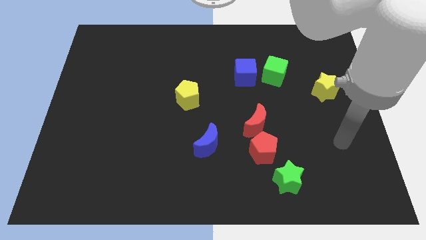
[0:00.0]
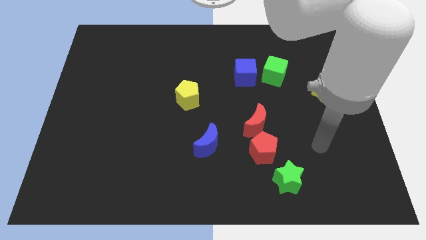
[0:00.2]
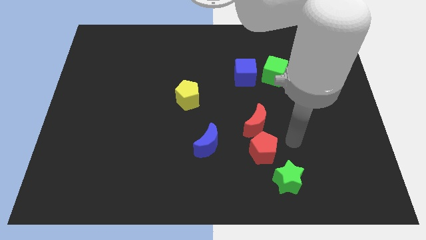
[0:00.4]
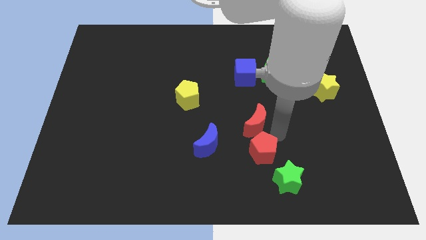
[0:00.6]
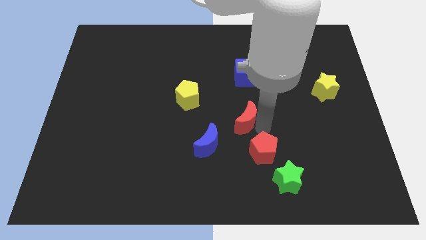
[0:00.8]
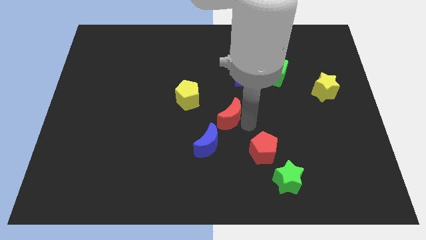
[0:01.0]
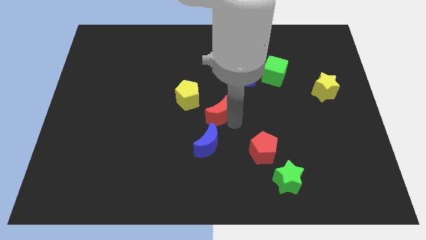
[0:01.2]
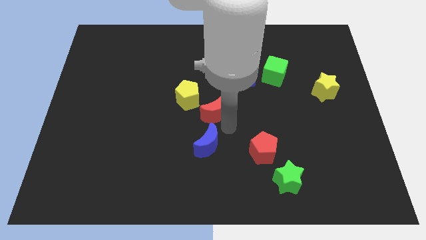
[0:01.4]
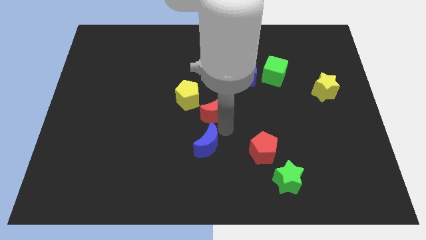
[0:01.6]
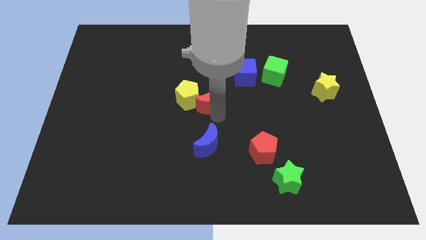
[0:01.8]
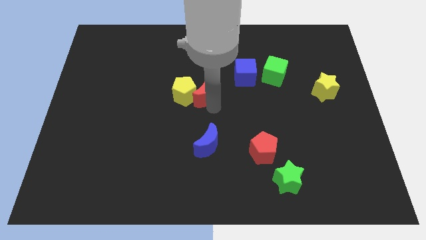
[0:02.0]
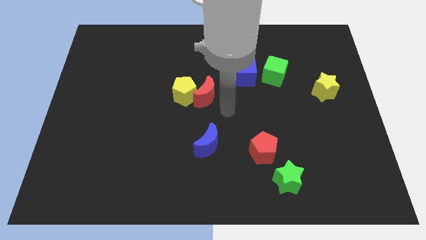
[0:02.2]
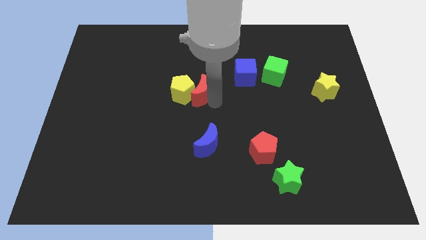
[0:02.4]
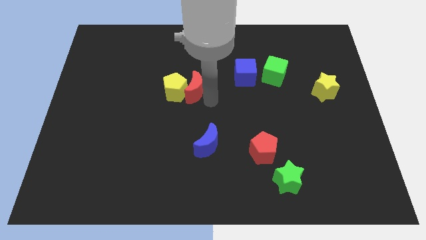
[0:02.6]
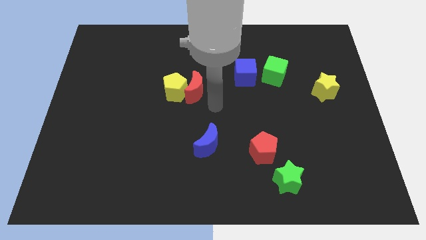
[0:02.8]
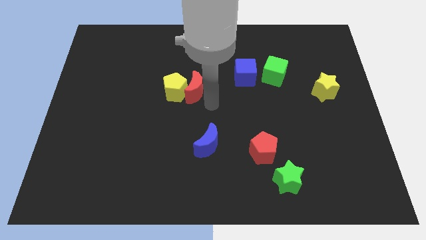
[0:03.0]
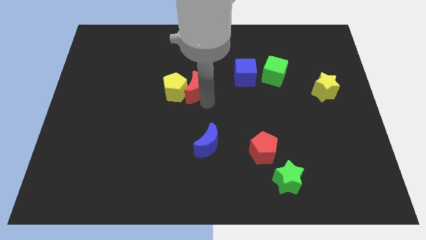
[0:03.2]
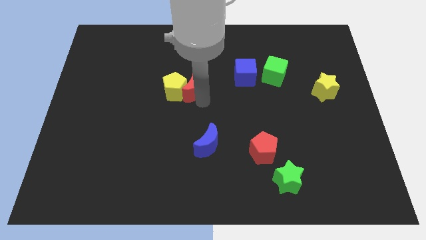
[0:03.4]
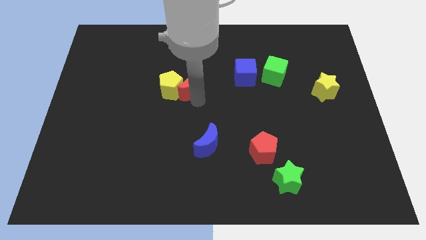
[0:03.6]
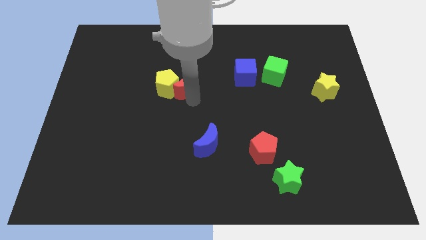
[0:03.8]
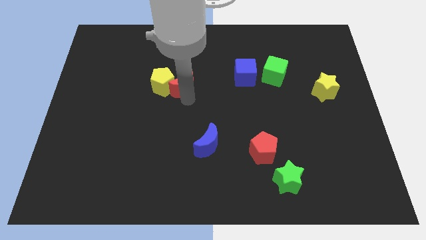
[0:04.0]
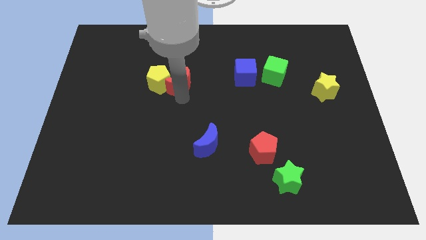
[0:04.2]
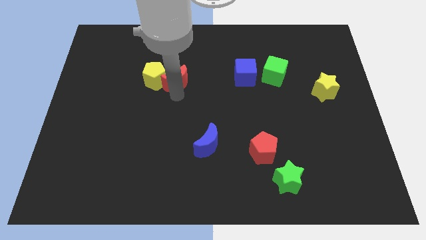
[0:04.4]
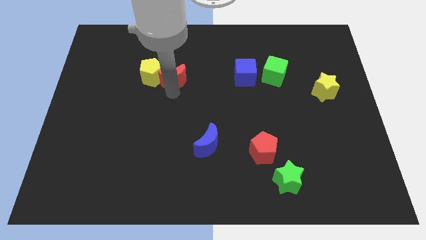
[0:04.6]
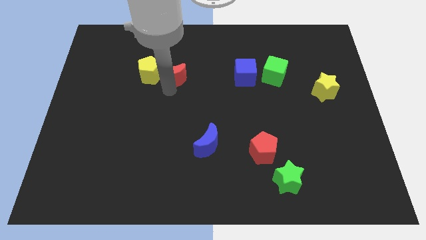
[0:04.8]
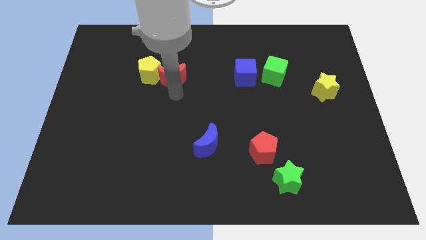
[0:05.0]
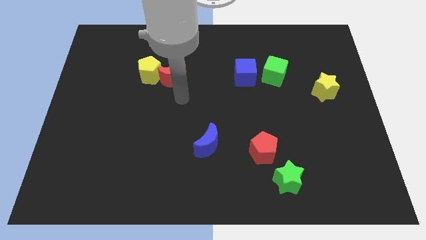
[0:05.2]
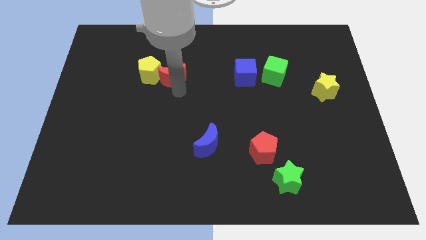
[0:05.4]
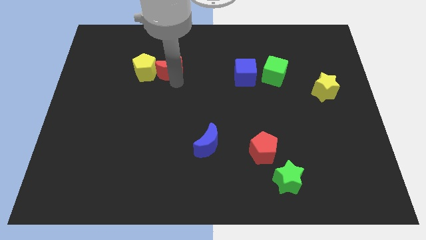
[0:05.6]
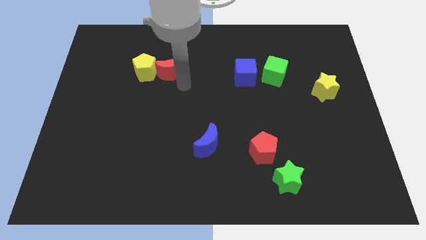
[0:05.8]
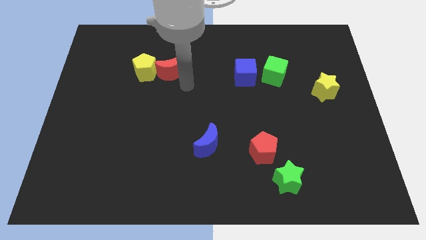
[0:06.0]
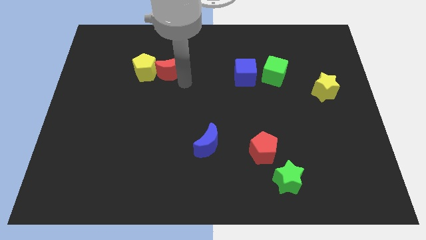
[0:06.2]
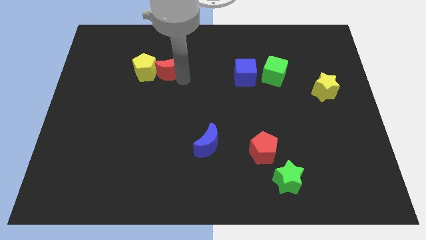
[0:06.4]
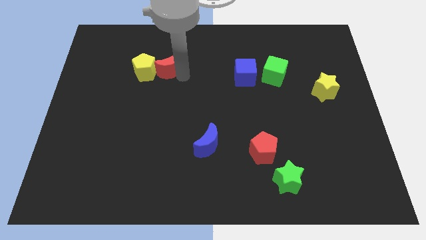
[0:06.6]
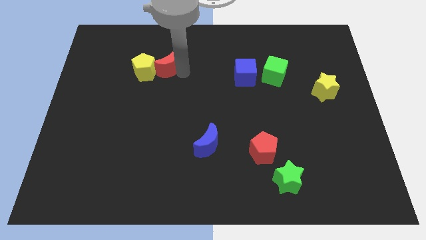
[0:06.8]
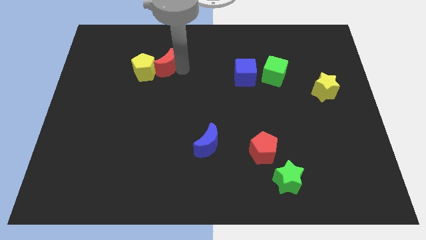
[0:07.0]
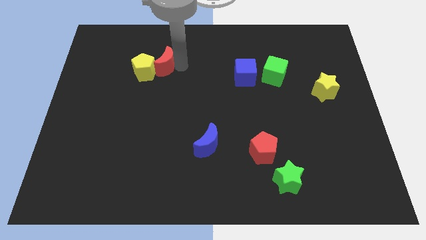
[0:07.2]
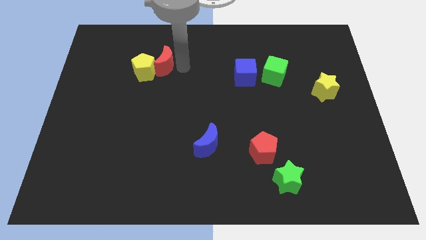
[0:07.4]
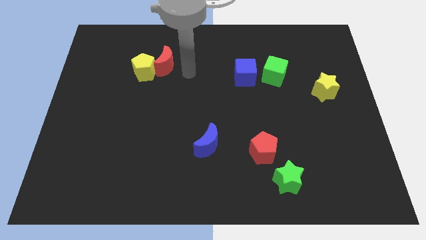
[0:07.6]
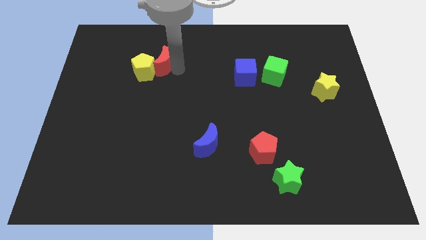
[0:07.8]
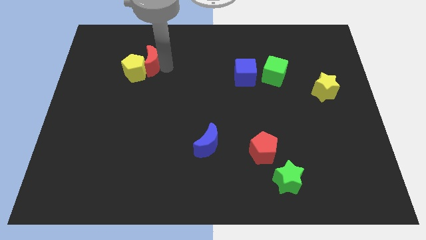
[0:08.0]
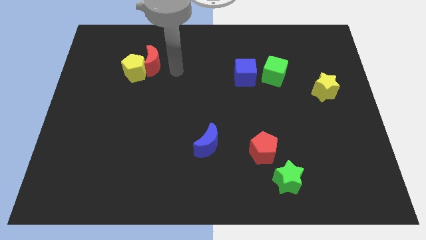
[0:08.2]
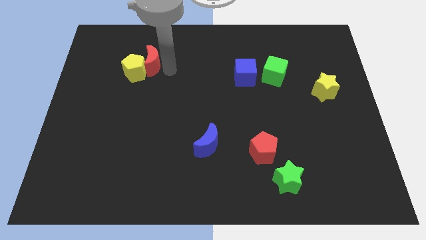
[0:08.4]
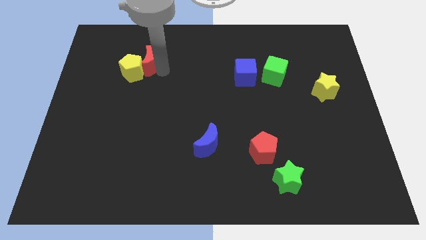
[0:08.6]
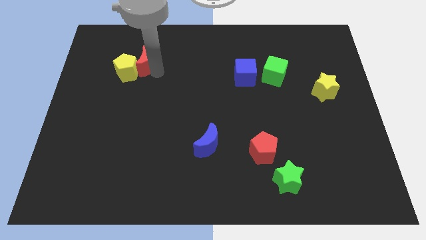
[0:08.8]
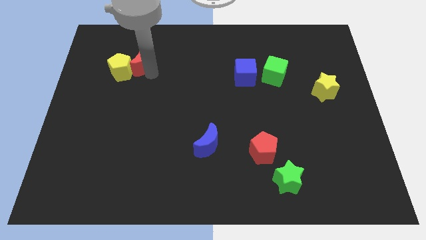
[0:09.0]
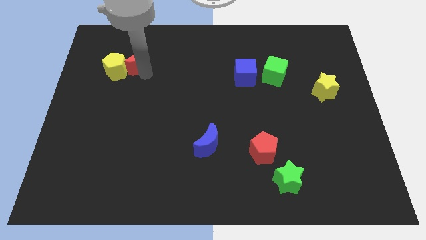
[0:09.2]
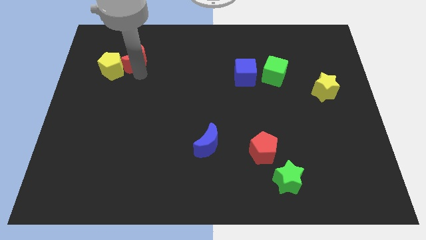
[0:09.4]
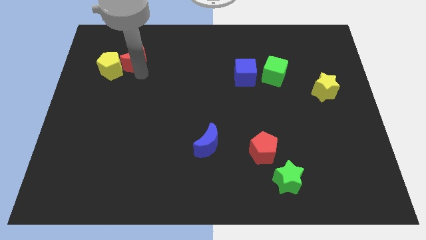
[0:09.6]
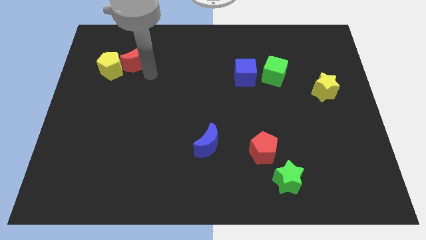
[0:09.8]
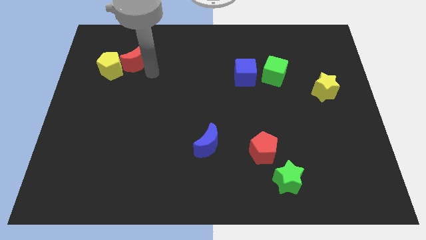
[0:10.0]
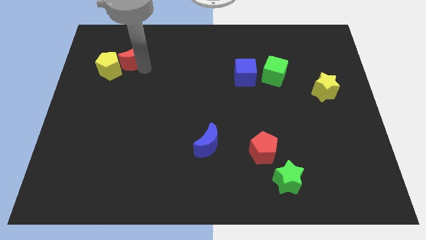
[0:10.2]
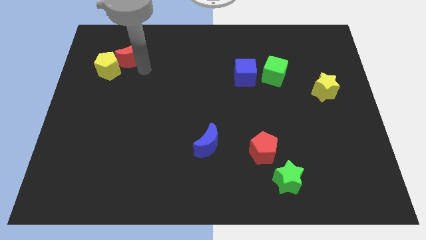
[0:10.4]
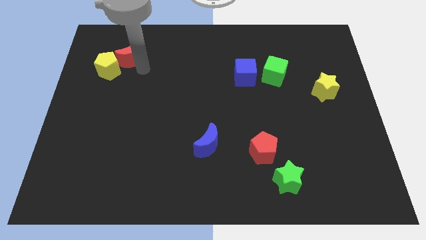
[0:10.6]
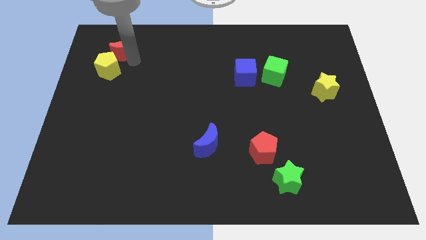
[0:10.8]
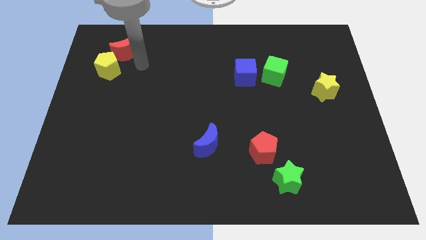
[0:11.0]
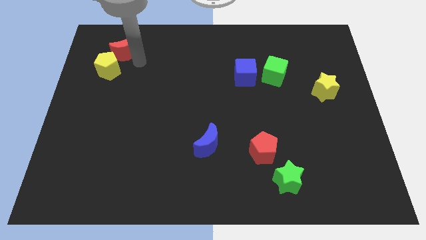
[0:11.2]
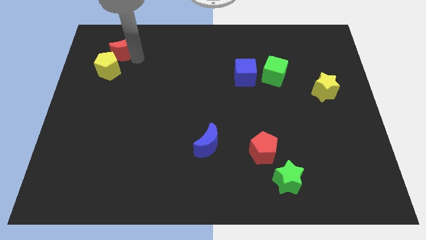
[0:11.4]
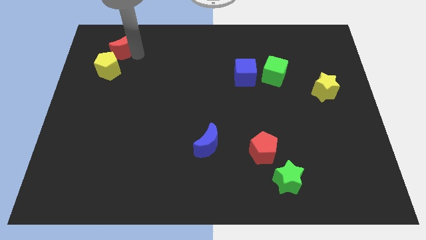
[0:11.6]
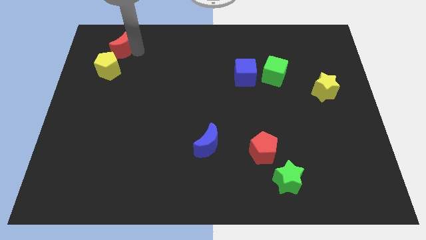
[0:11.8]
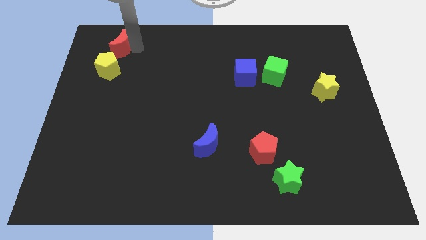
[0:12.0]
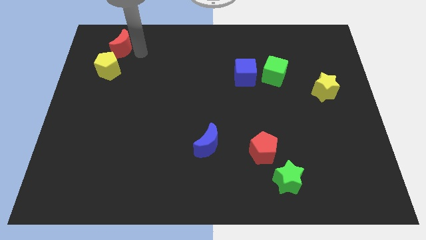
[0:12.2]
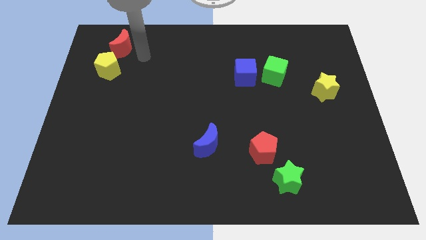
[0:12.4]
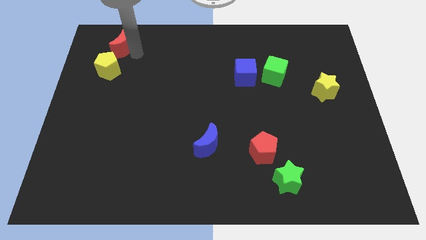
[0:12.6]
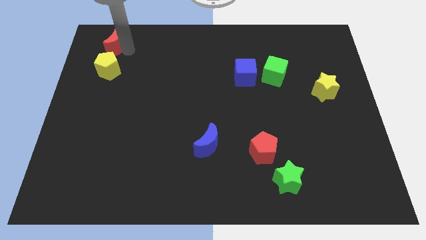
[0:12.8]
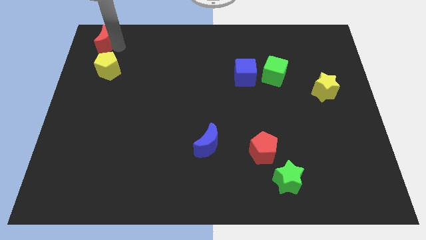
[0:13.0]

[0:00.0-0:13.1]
push the red moon to the upper left corner

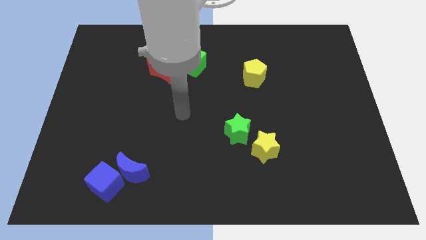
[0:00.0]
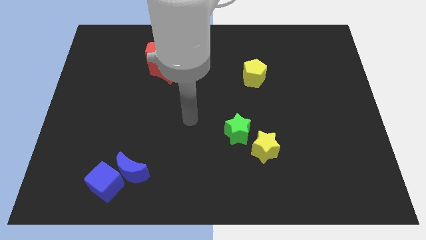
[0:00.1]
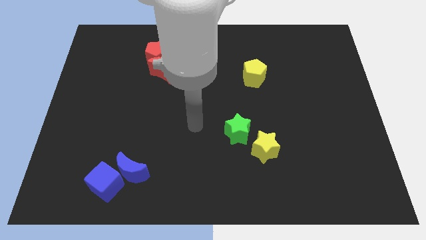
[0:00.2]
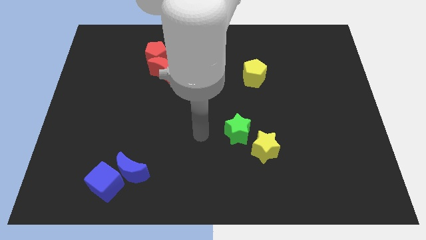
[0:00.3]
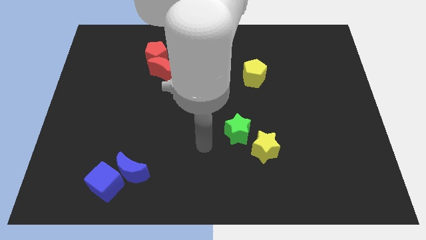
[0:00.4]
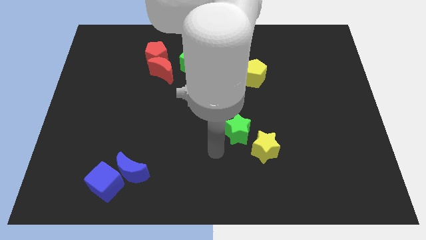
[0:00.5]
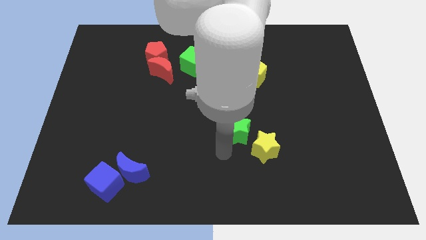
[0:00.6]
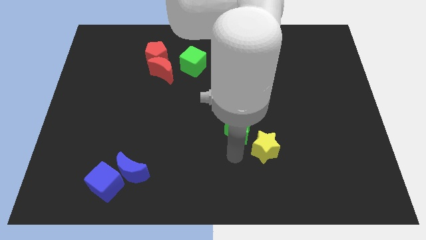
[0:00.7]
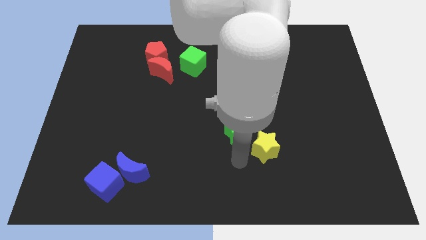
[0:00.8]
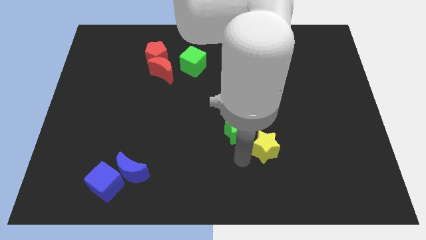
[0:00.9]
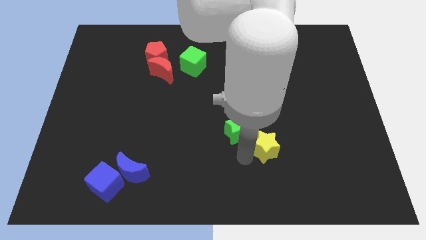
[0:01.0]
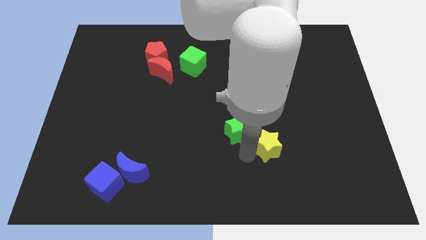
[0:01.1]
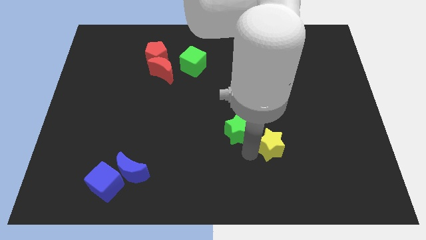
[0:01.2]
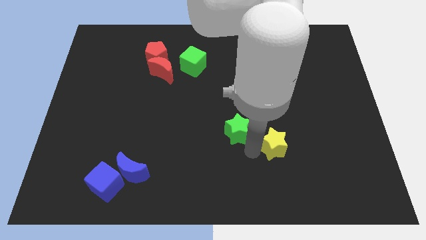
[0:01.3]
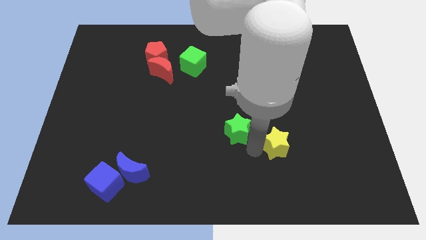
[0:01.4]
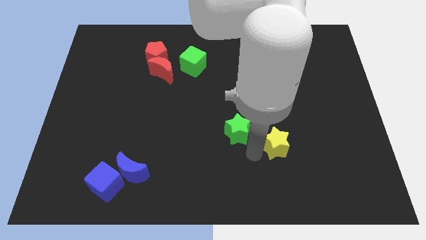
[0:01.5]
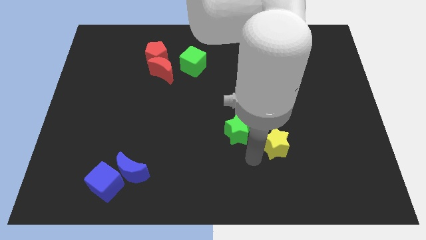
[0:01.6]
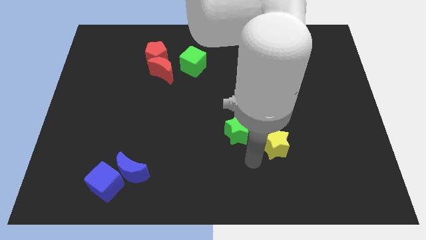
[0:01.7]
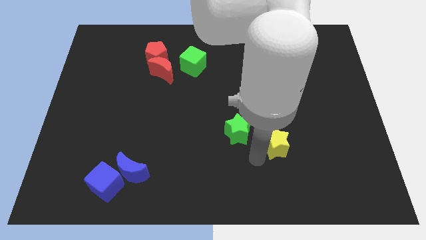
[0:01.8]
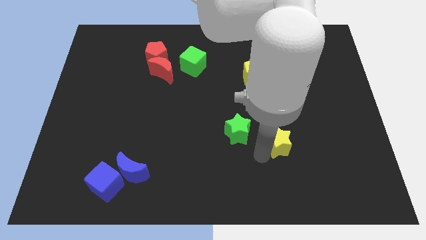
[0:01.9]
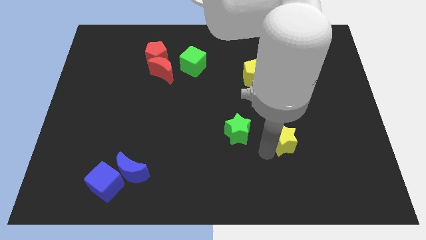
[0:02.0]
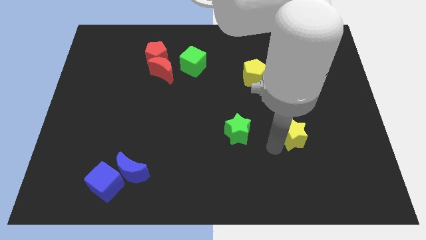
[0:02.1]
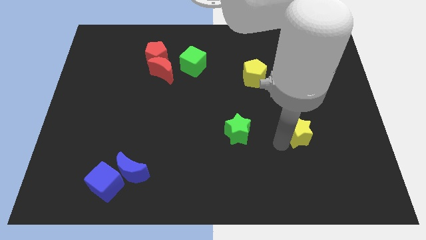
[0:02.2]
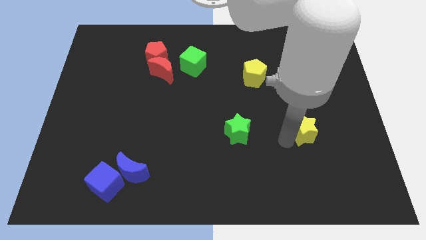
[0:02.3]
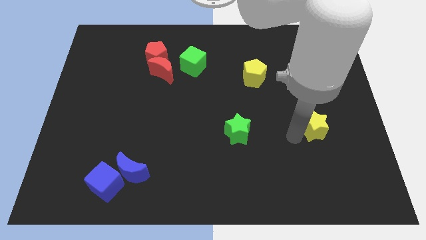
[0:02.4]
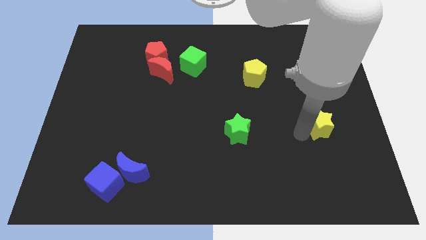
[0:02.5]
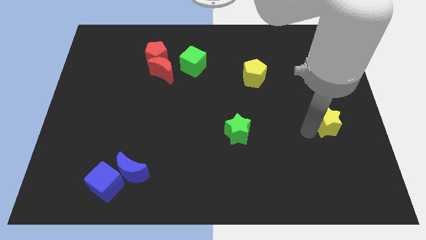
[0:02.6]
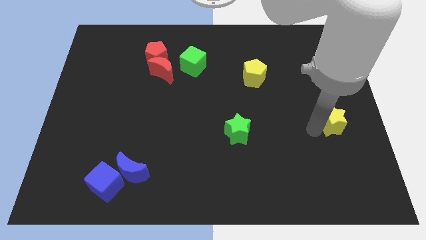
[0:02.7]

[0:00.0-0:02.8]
put the yellow star to the center right
